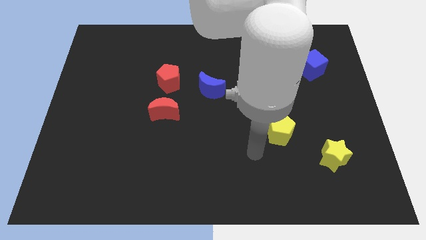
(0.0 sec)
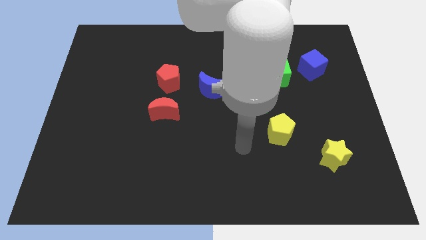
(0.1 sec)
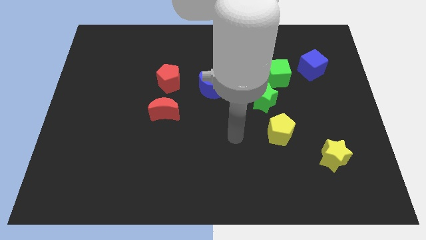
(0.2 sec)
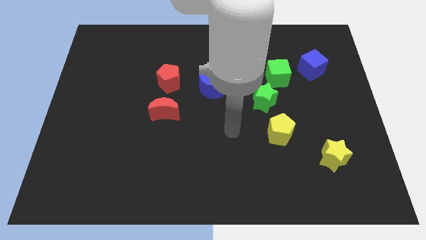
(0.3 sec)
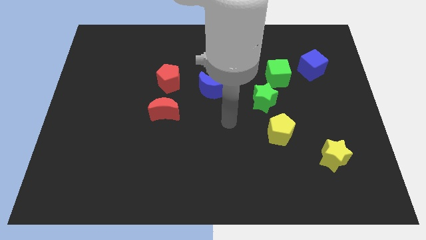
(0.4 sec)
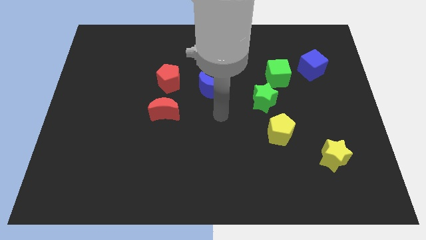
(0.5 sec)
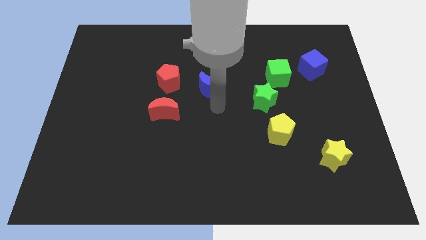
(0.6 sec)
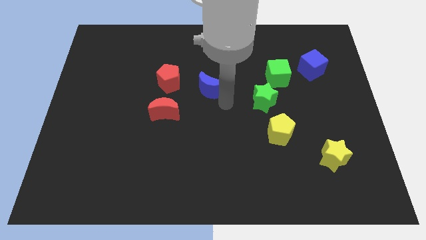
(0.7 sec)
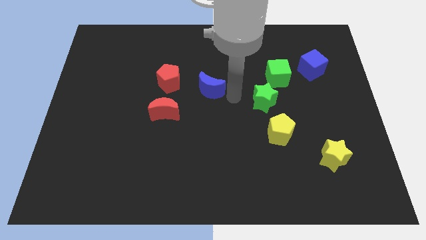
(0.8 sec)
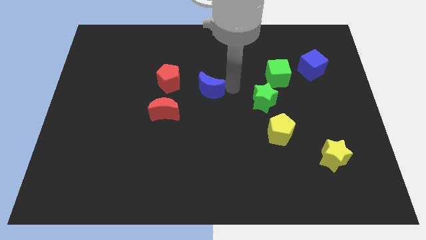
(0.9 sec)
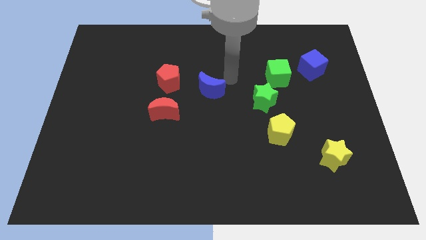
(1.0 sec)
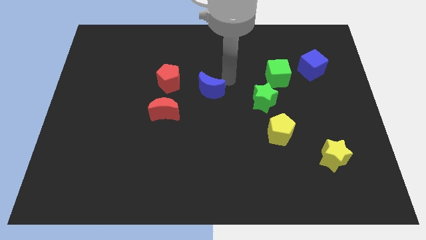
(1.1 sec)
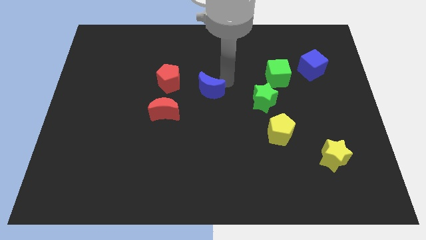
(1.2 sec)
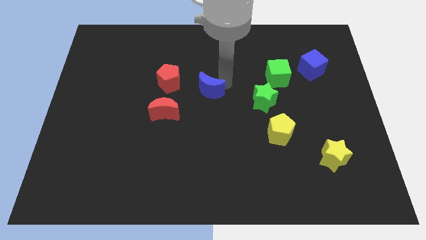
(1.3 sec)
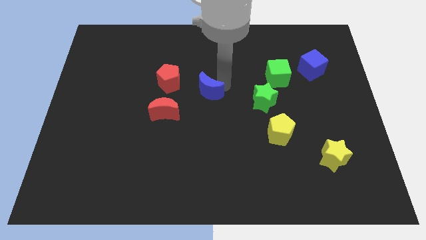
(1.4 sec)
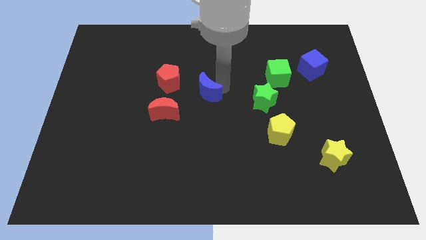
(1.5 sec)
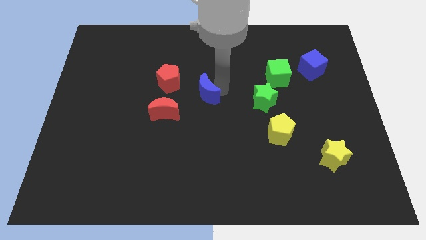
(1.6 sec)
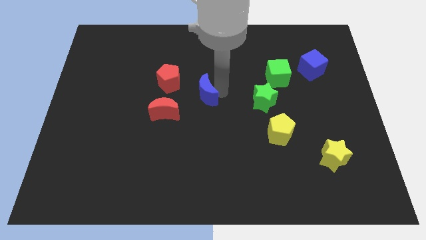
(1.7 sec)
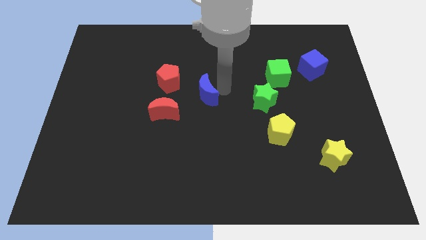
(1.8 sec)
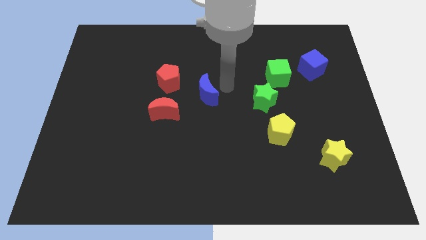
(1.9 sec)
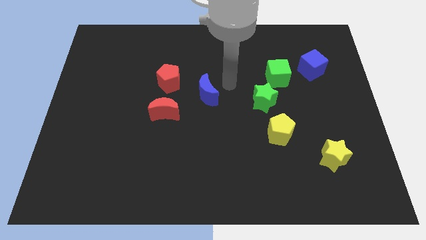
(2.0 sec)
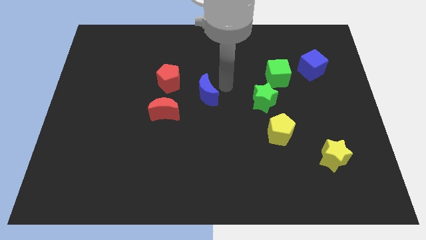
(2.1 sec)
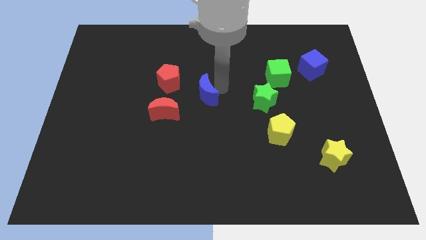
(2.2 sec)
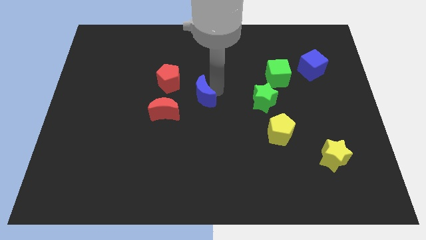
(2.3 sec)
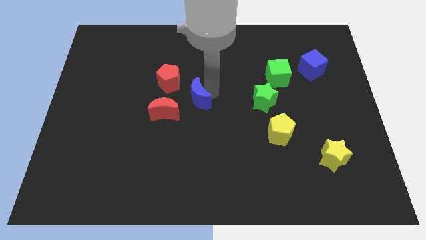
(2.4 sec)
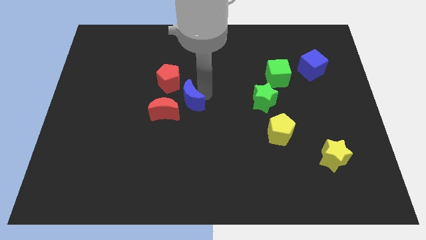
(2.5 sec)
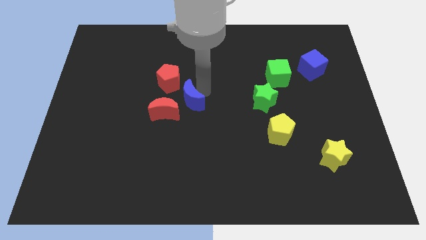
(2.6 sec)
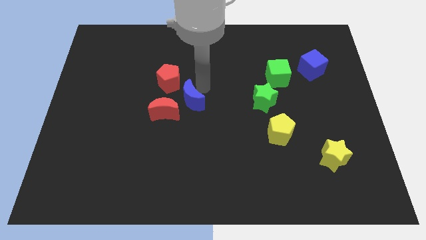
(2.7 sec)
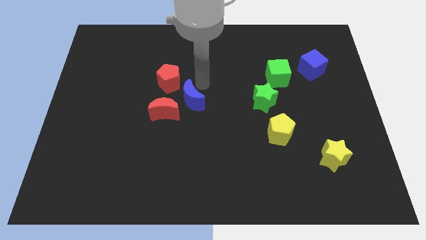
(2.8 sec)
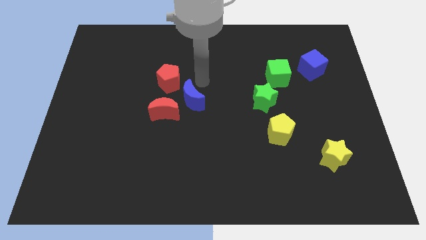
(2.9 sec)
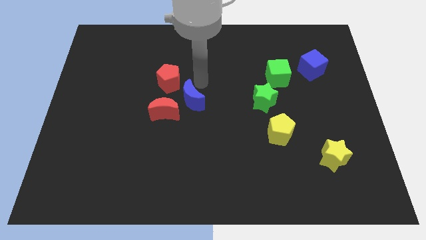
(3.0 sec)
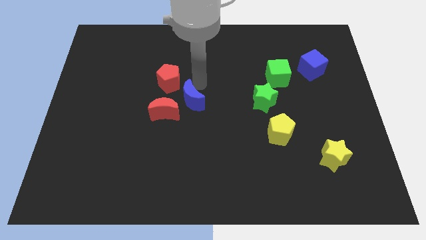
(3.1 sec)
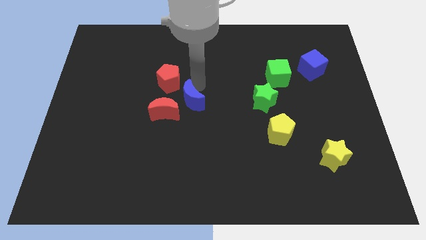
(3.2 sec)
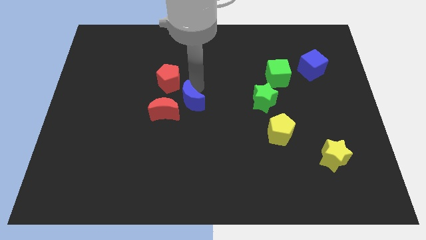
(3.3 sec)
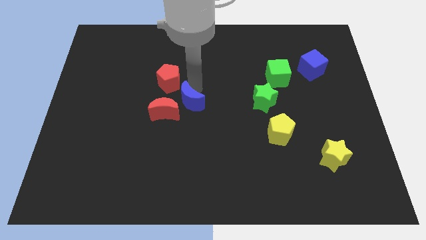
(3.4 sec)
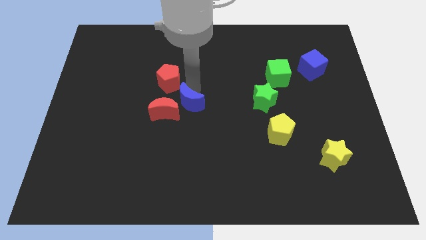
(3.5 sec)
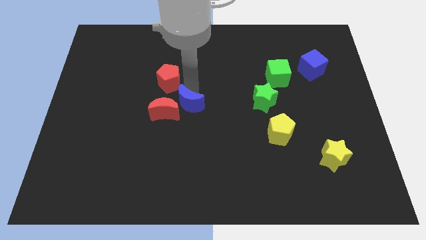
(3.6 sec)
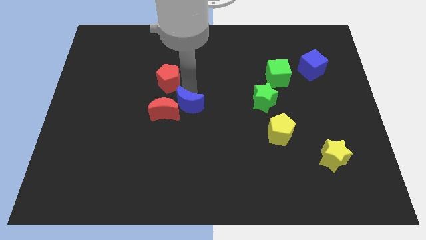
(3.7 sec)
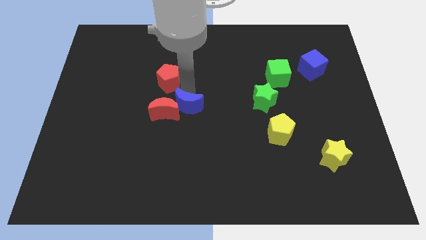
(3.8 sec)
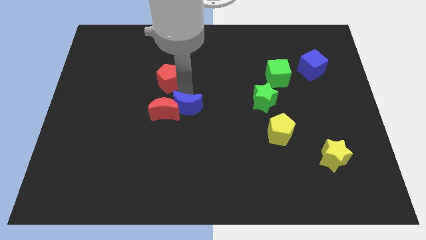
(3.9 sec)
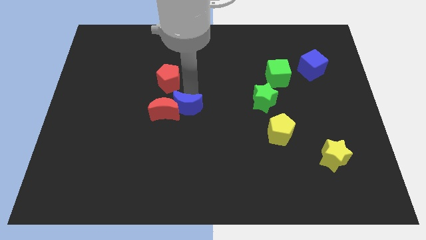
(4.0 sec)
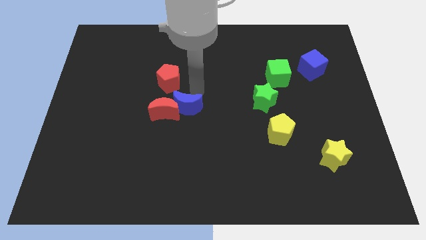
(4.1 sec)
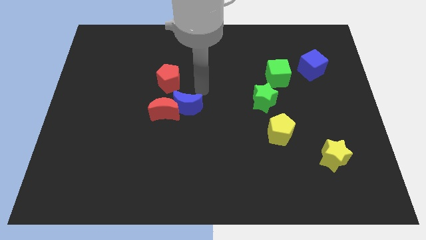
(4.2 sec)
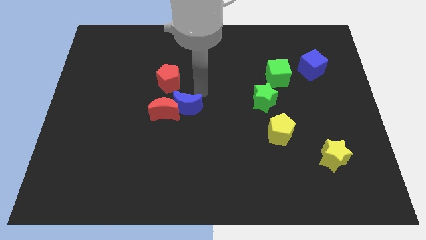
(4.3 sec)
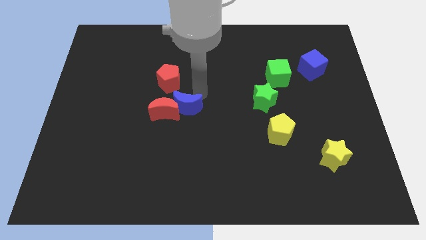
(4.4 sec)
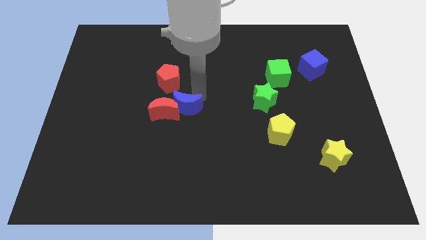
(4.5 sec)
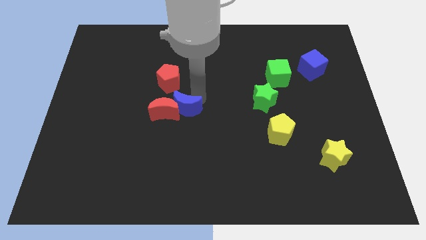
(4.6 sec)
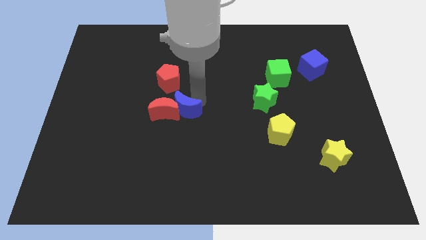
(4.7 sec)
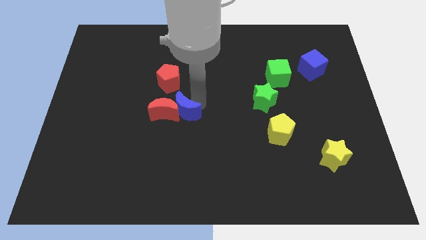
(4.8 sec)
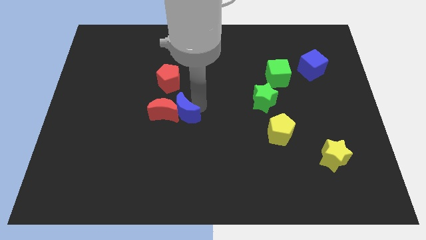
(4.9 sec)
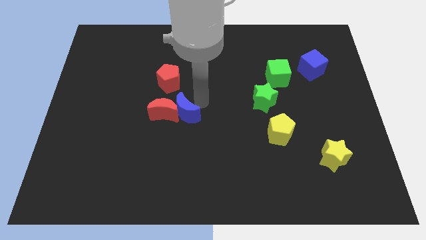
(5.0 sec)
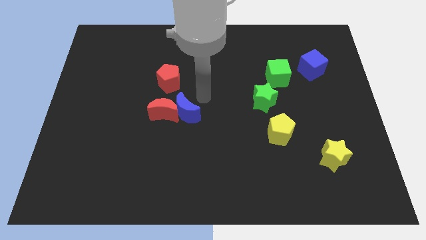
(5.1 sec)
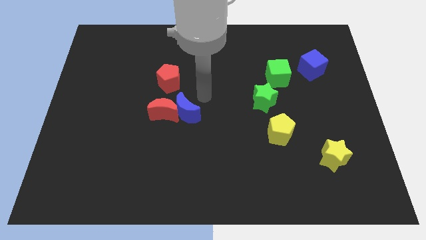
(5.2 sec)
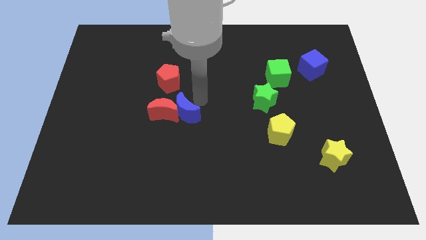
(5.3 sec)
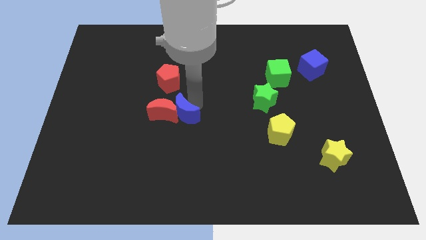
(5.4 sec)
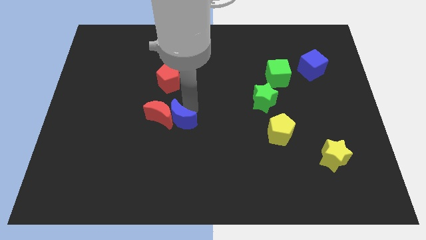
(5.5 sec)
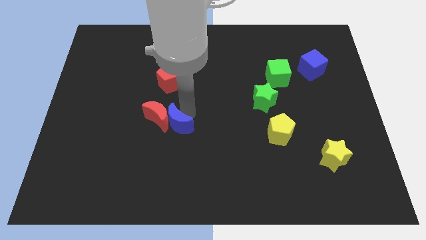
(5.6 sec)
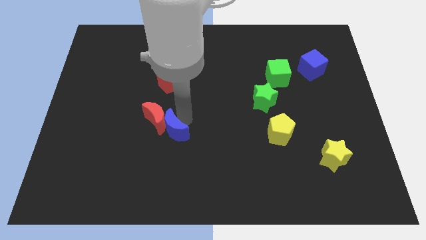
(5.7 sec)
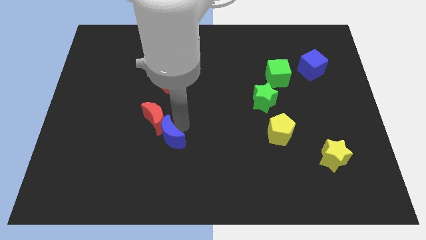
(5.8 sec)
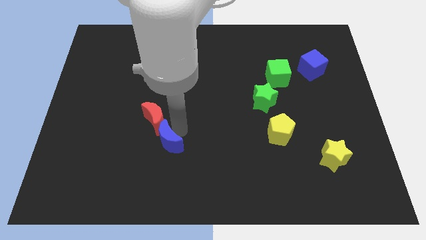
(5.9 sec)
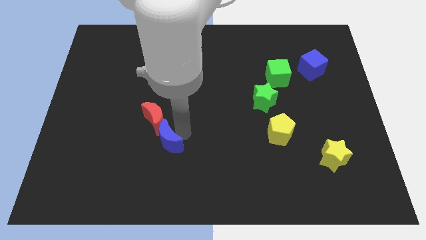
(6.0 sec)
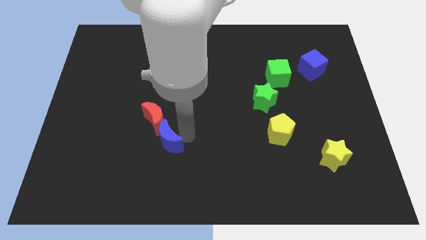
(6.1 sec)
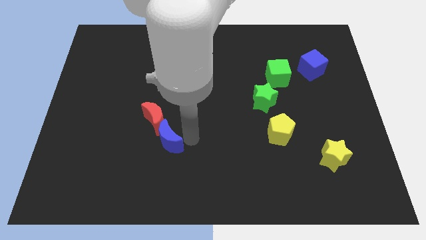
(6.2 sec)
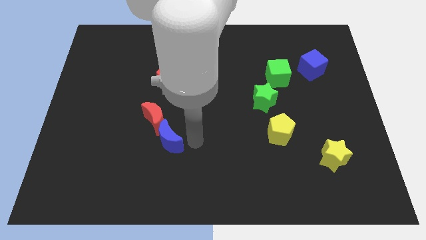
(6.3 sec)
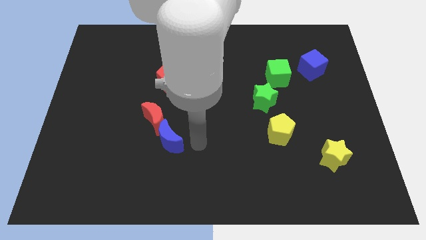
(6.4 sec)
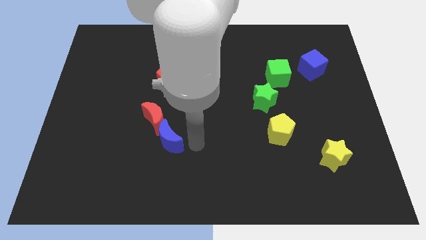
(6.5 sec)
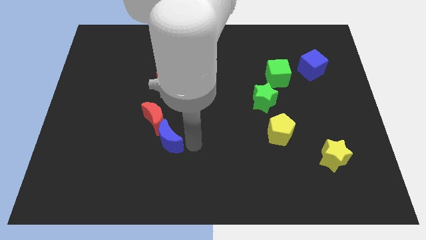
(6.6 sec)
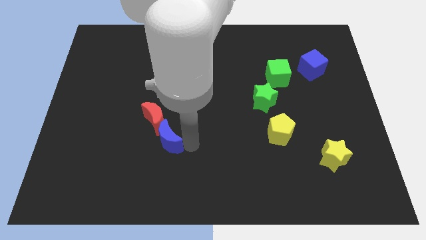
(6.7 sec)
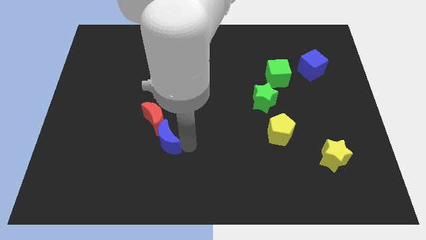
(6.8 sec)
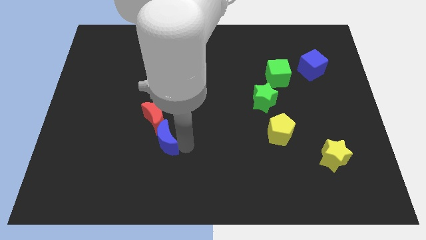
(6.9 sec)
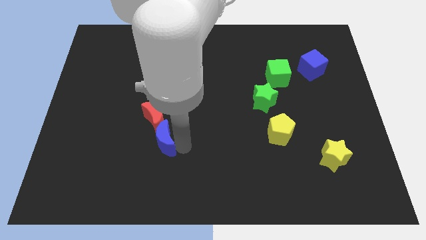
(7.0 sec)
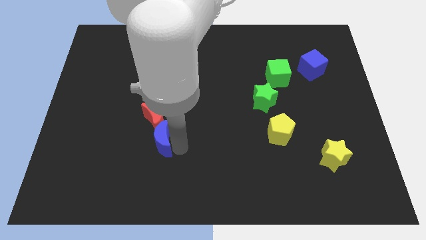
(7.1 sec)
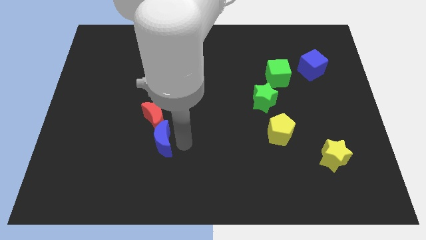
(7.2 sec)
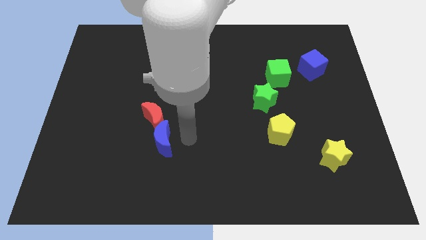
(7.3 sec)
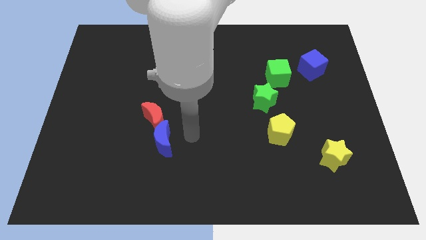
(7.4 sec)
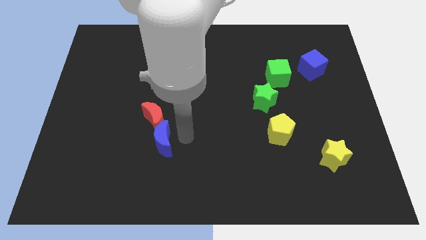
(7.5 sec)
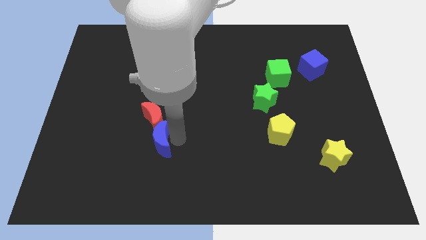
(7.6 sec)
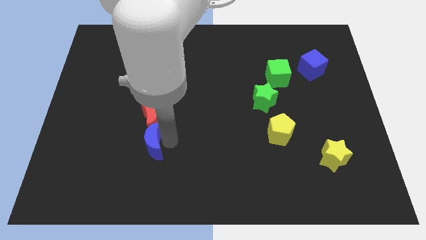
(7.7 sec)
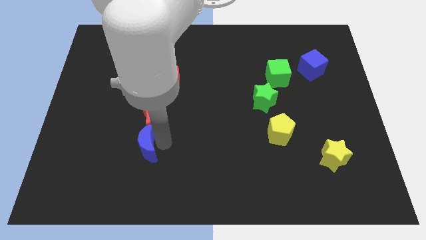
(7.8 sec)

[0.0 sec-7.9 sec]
push the blue moon down and then to the left
